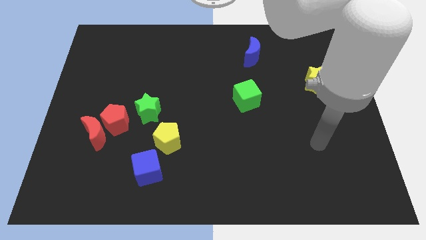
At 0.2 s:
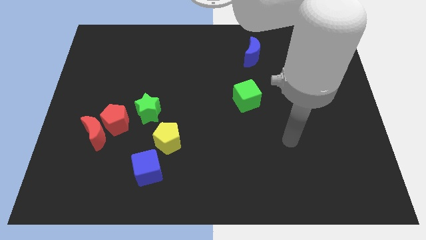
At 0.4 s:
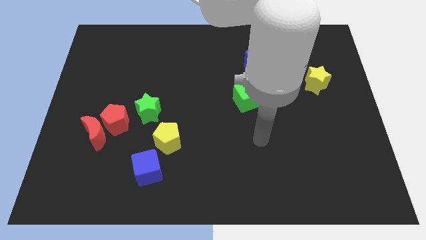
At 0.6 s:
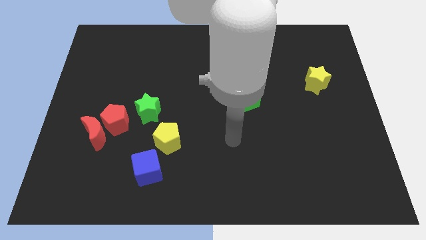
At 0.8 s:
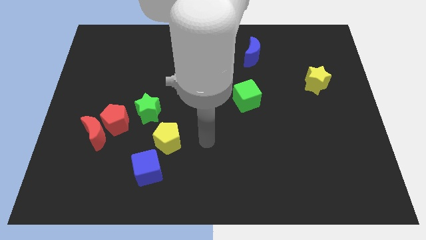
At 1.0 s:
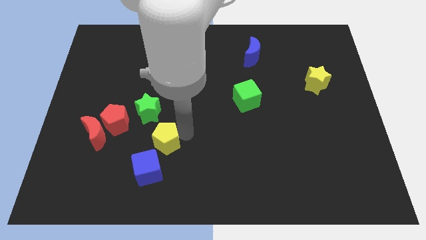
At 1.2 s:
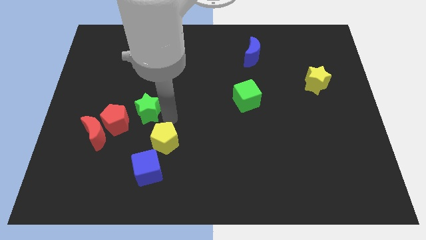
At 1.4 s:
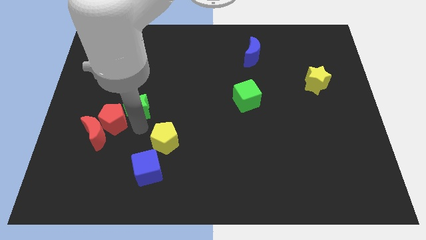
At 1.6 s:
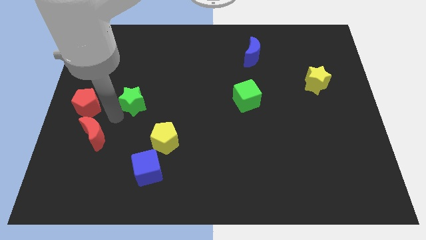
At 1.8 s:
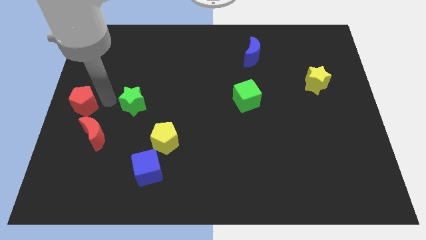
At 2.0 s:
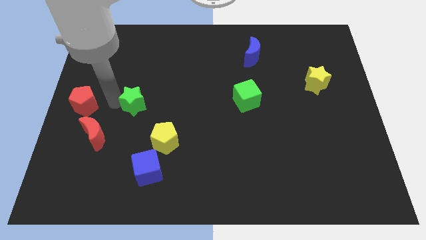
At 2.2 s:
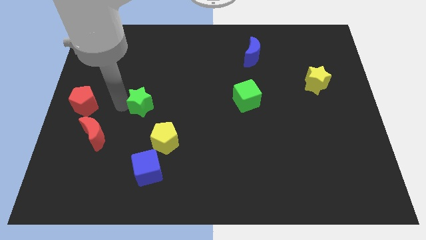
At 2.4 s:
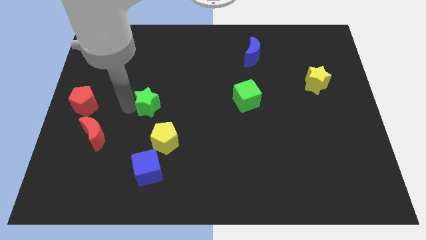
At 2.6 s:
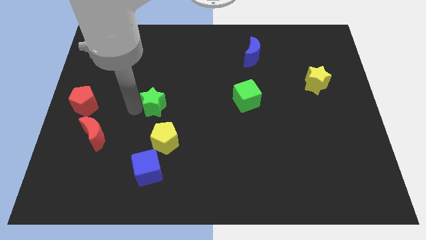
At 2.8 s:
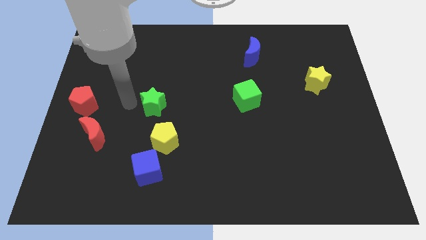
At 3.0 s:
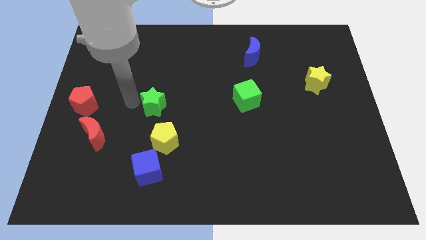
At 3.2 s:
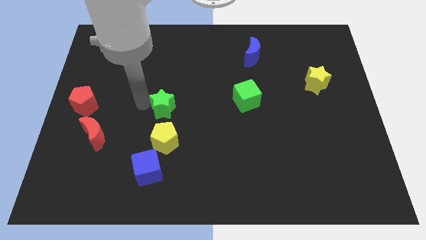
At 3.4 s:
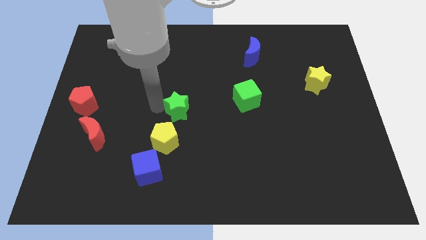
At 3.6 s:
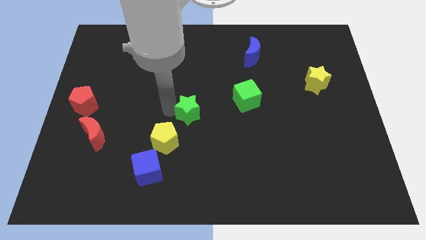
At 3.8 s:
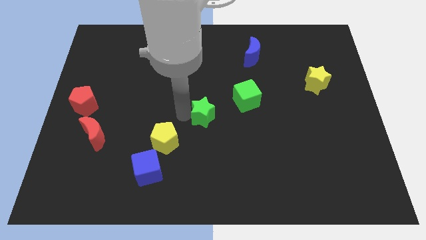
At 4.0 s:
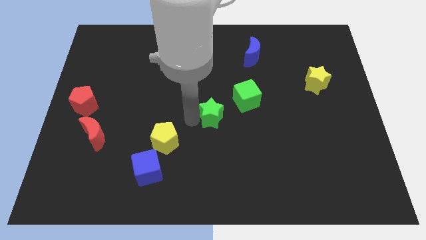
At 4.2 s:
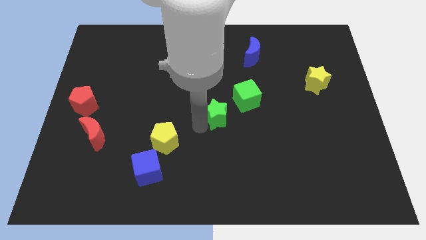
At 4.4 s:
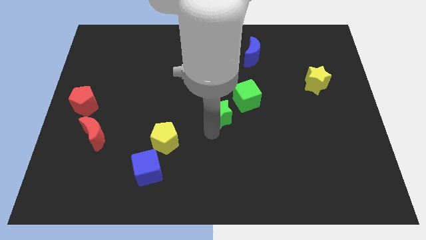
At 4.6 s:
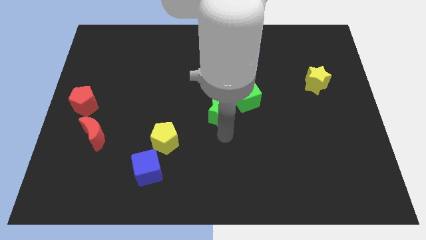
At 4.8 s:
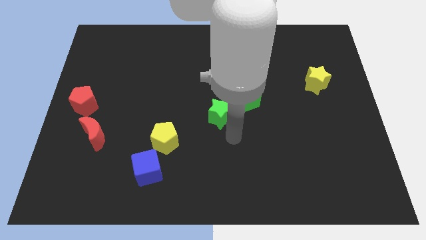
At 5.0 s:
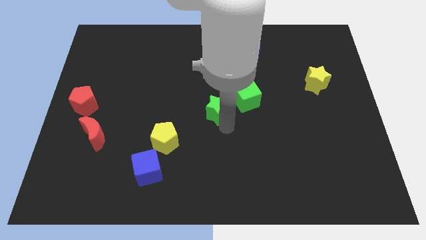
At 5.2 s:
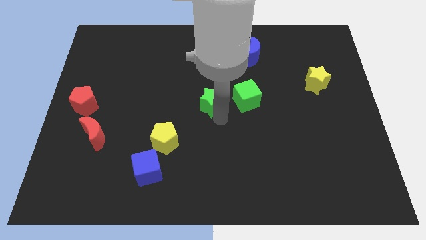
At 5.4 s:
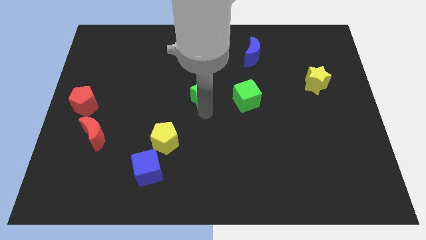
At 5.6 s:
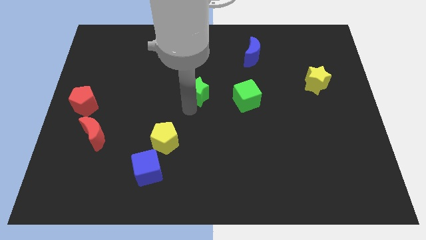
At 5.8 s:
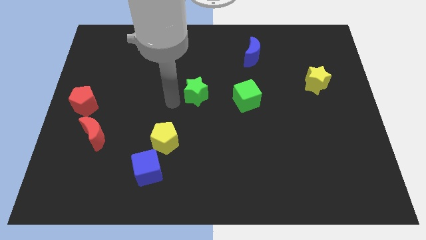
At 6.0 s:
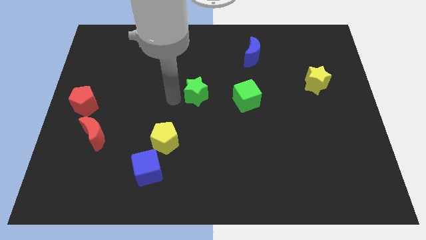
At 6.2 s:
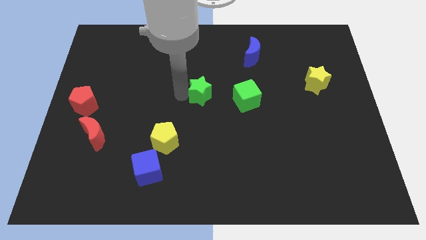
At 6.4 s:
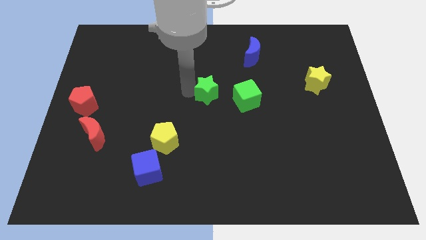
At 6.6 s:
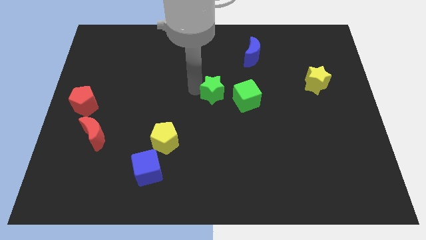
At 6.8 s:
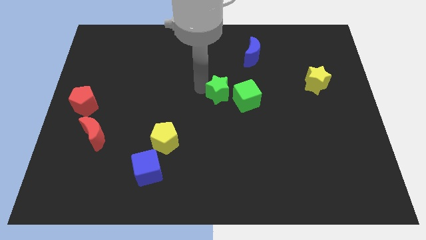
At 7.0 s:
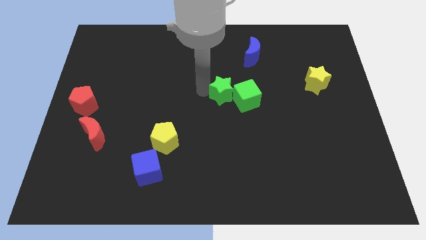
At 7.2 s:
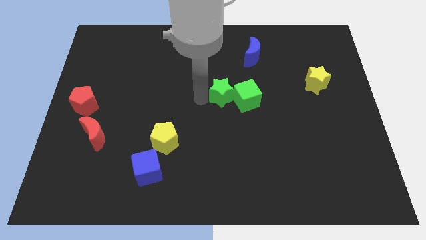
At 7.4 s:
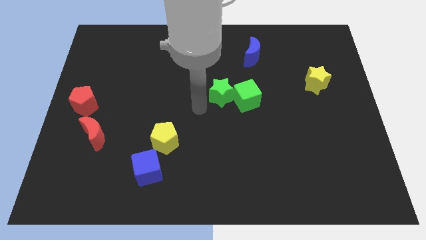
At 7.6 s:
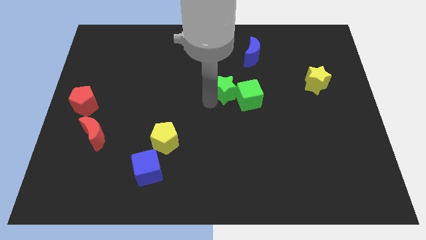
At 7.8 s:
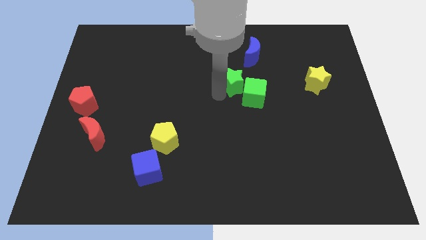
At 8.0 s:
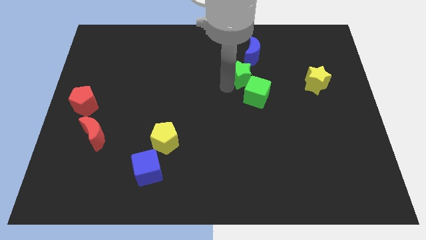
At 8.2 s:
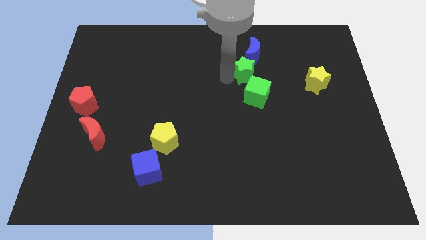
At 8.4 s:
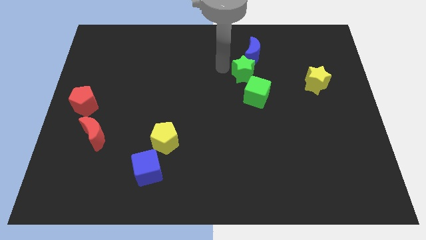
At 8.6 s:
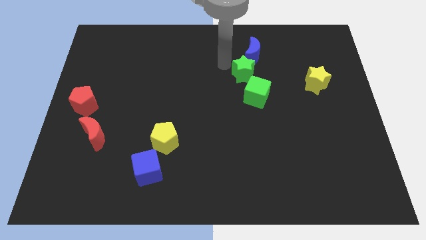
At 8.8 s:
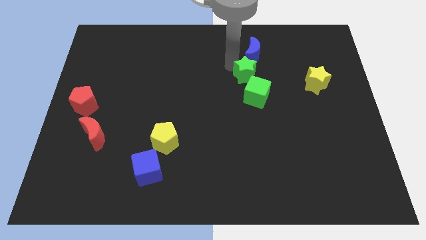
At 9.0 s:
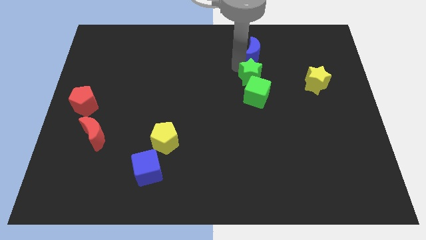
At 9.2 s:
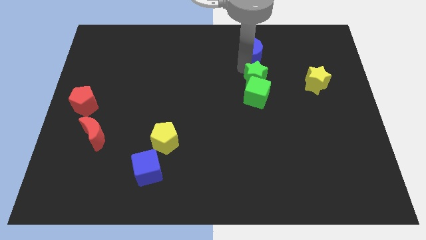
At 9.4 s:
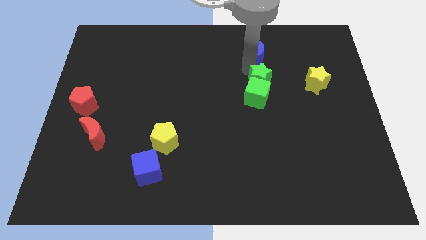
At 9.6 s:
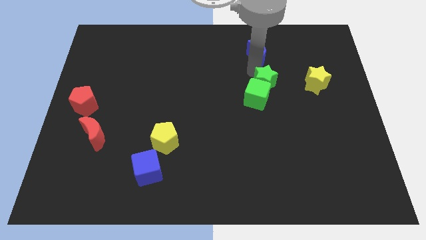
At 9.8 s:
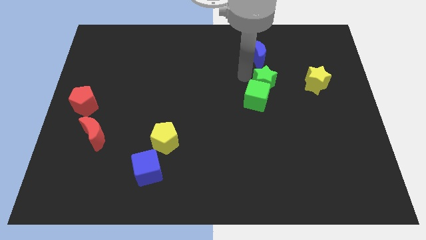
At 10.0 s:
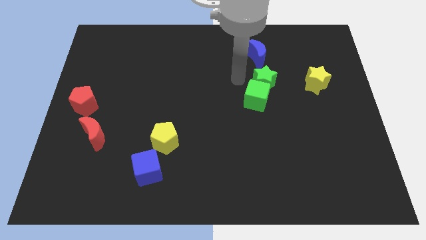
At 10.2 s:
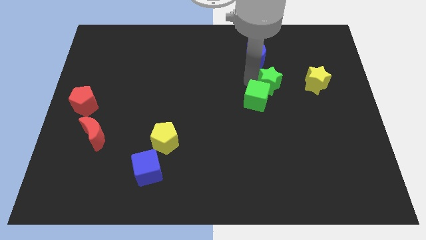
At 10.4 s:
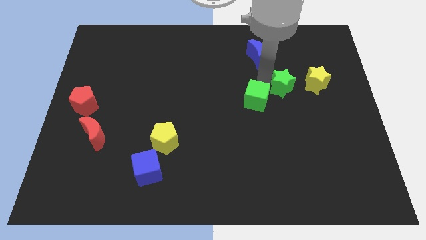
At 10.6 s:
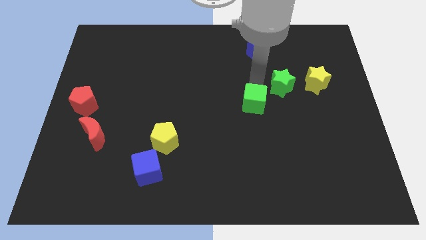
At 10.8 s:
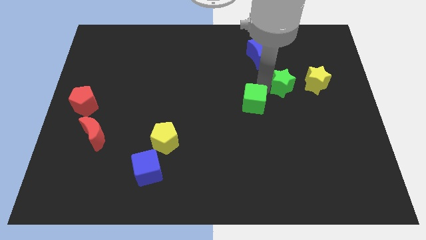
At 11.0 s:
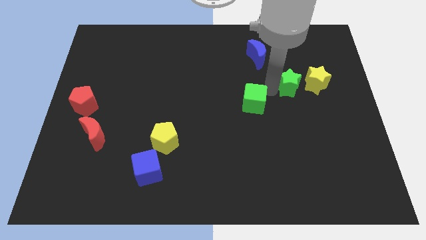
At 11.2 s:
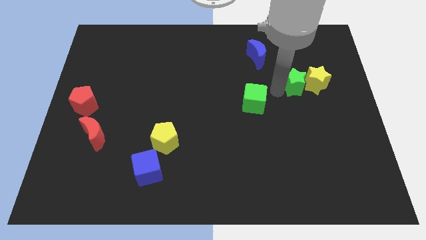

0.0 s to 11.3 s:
move the green star next to the yellow star

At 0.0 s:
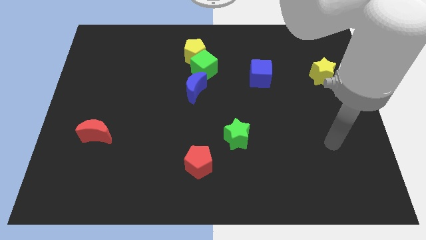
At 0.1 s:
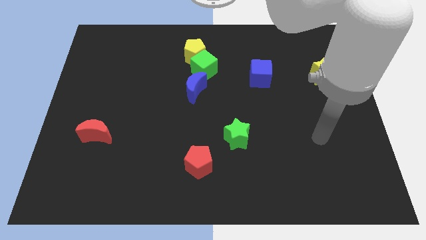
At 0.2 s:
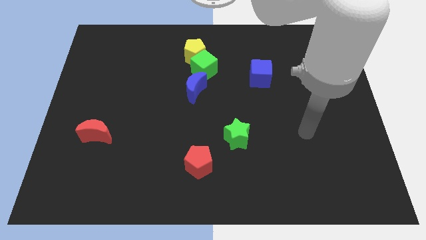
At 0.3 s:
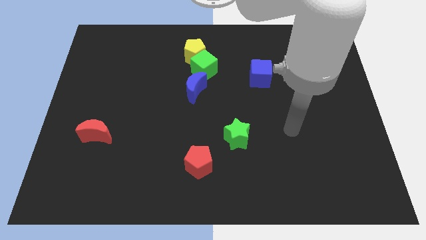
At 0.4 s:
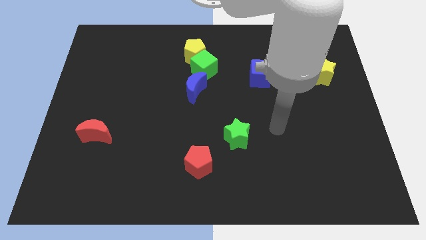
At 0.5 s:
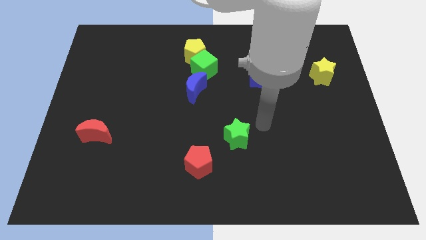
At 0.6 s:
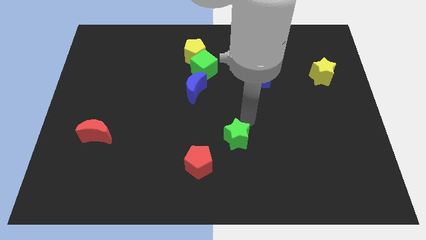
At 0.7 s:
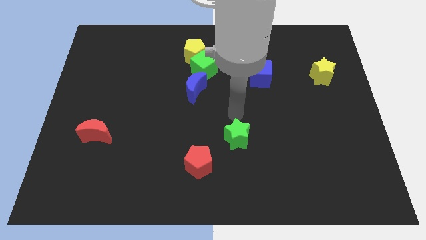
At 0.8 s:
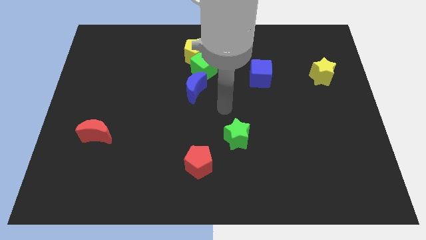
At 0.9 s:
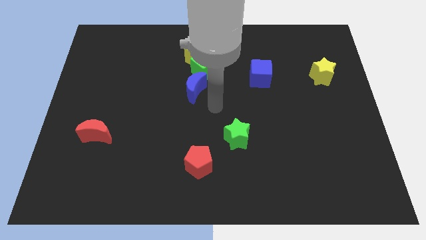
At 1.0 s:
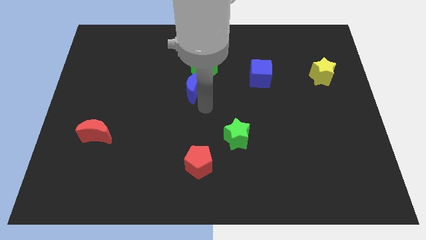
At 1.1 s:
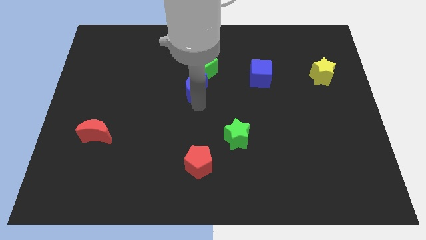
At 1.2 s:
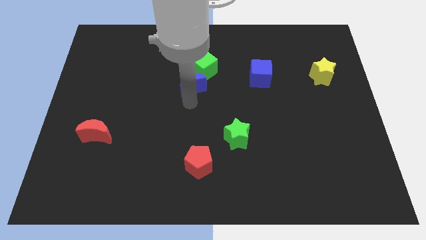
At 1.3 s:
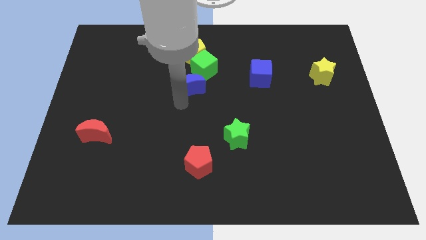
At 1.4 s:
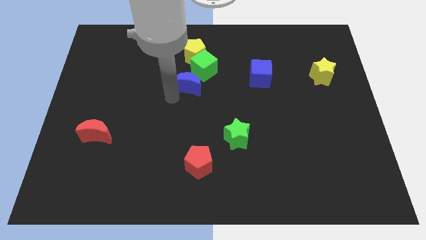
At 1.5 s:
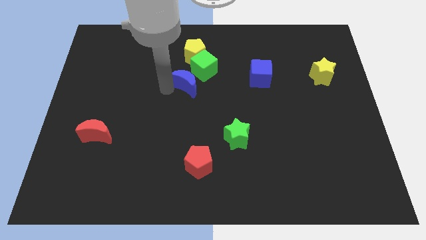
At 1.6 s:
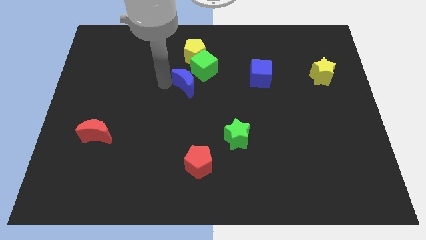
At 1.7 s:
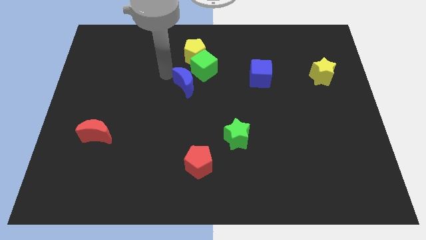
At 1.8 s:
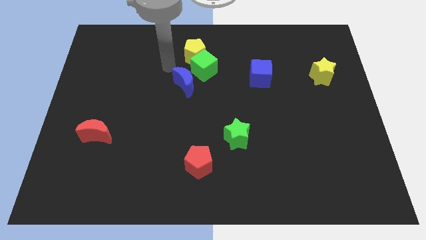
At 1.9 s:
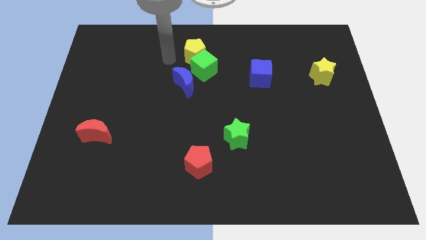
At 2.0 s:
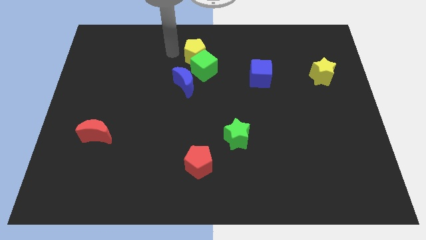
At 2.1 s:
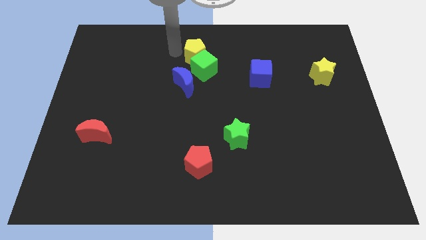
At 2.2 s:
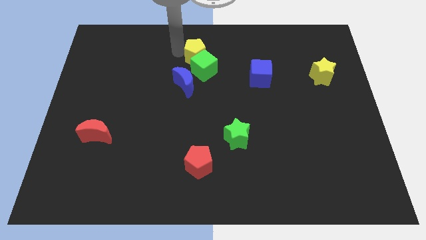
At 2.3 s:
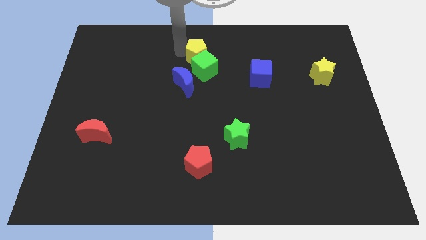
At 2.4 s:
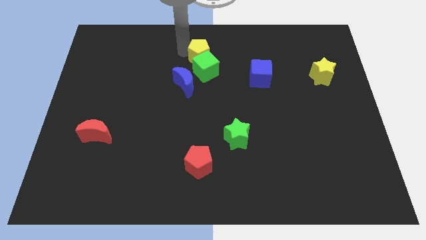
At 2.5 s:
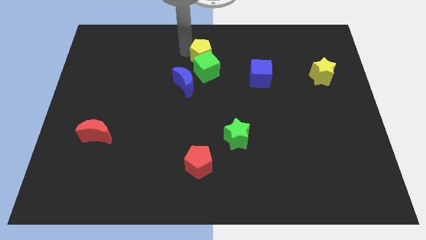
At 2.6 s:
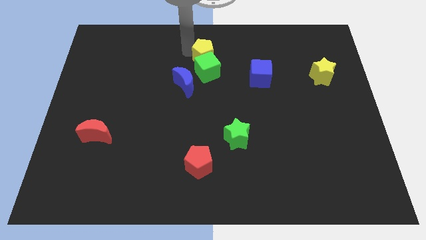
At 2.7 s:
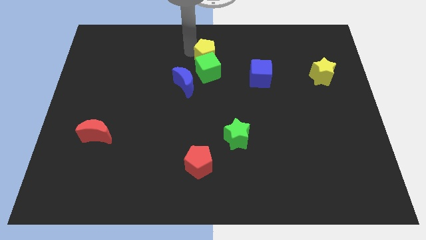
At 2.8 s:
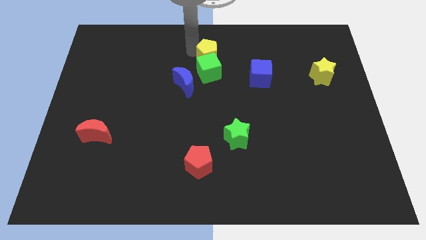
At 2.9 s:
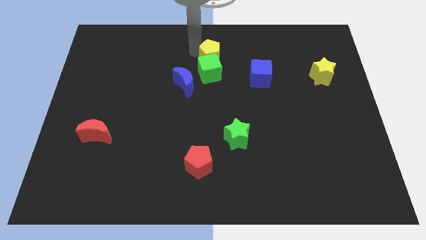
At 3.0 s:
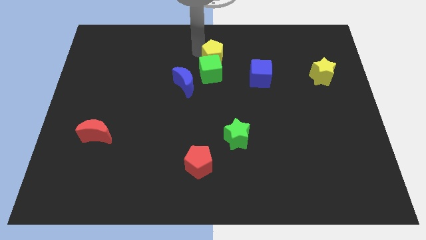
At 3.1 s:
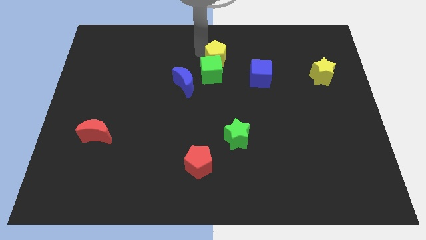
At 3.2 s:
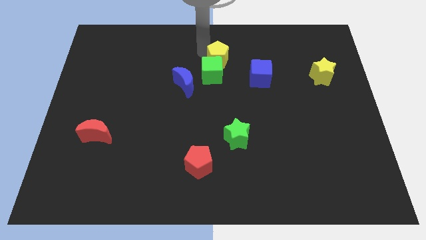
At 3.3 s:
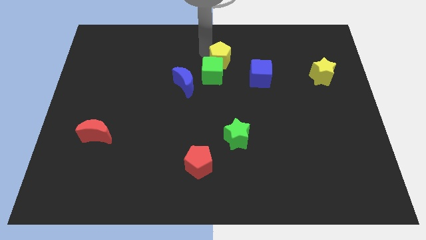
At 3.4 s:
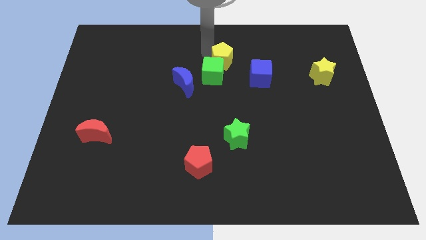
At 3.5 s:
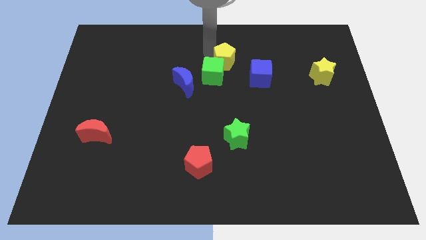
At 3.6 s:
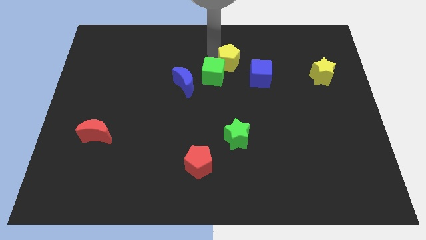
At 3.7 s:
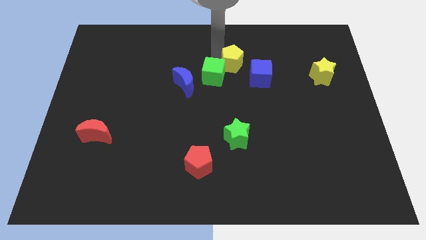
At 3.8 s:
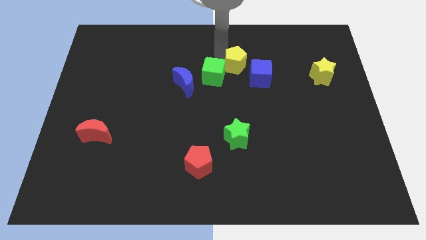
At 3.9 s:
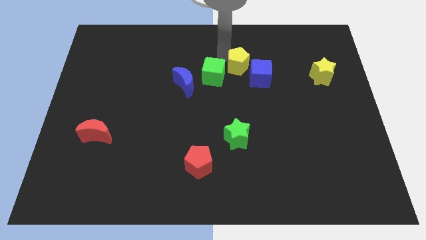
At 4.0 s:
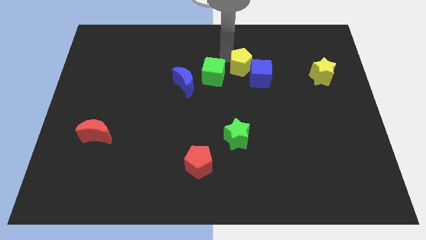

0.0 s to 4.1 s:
move the yellow pentagon next to the blue cube
